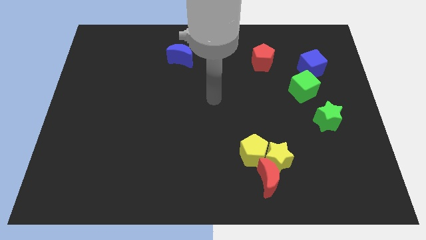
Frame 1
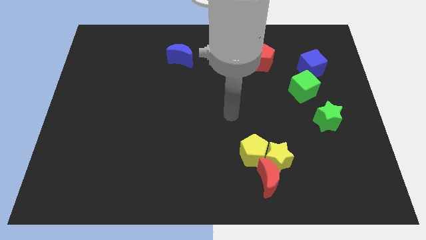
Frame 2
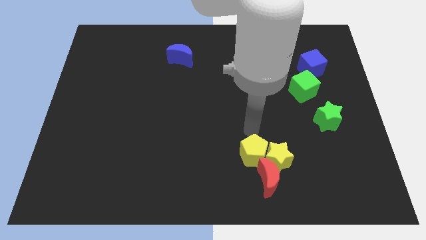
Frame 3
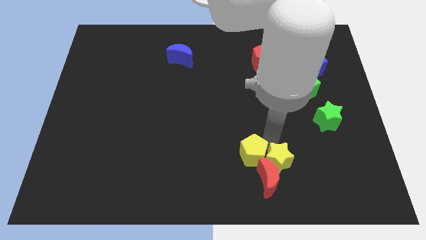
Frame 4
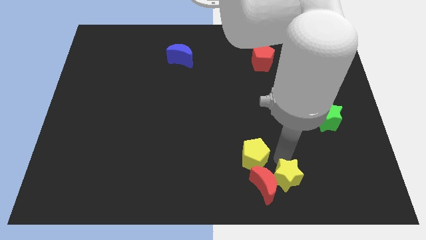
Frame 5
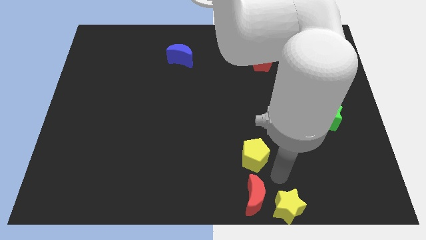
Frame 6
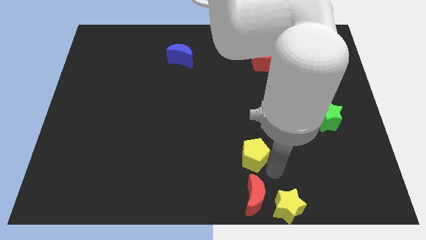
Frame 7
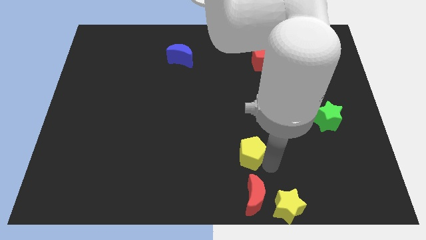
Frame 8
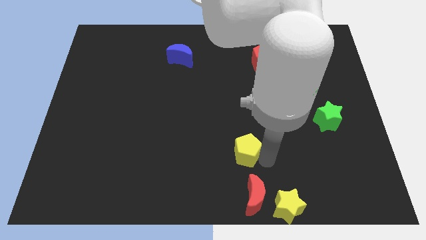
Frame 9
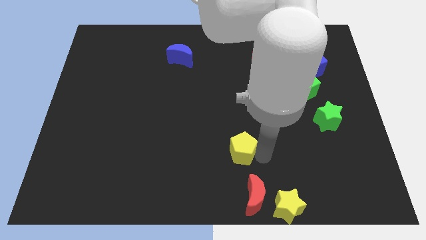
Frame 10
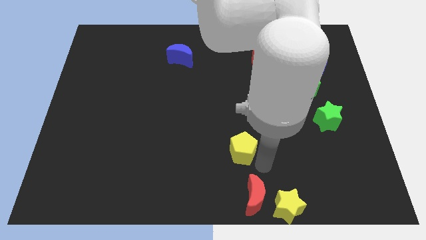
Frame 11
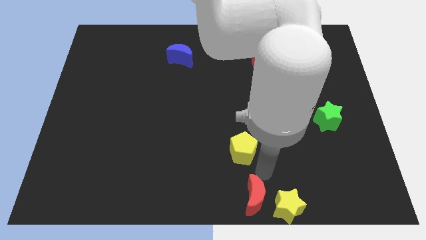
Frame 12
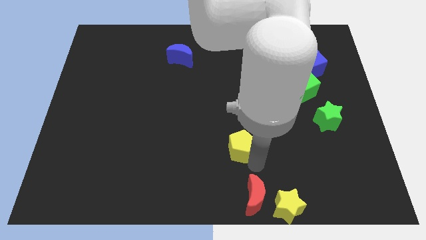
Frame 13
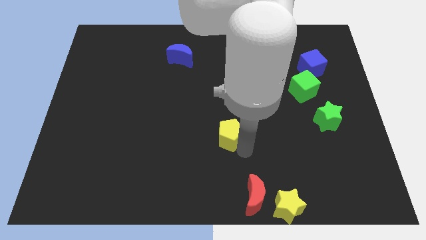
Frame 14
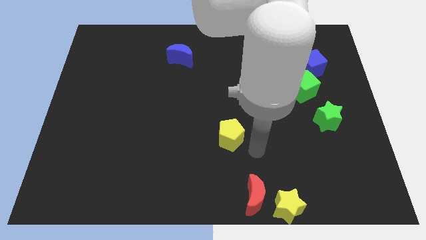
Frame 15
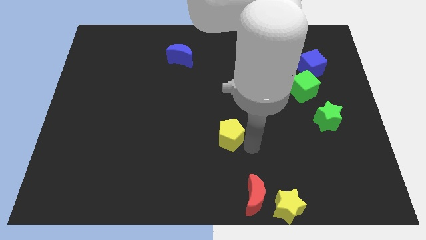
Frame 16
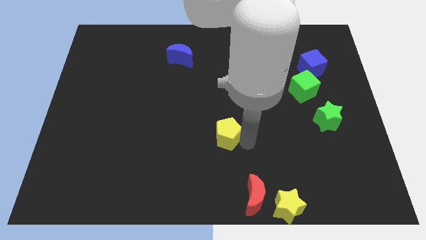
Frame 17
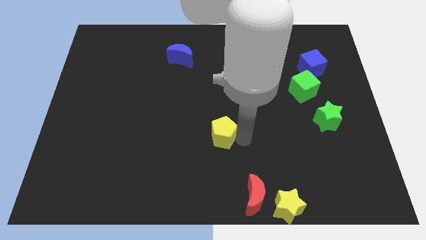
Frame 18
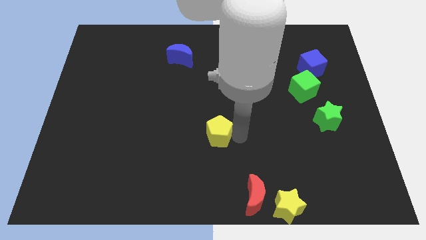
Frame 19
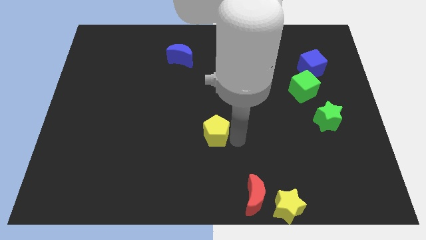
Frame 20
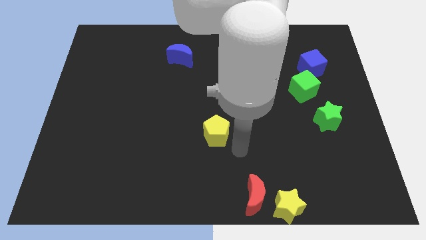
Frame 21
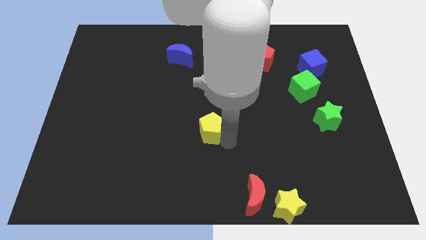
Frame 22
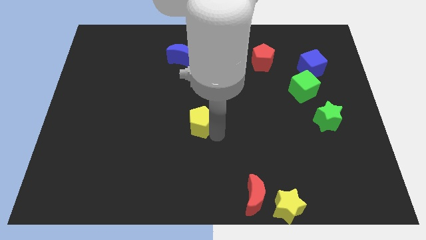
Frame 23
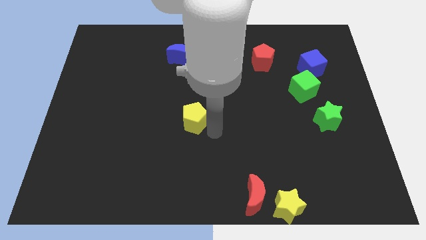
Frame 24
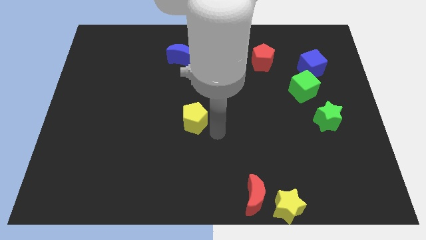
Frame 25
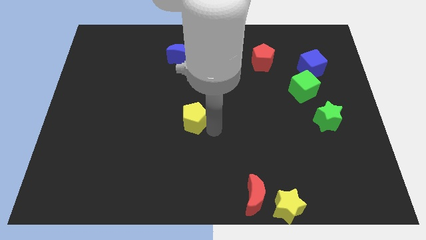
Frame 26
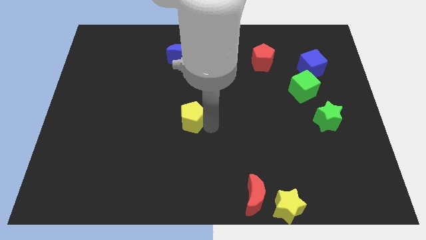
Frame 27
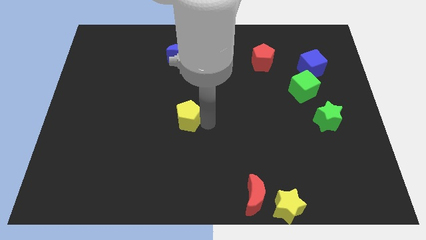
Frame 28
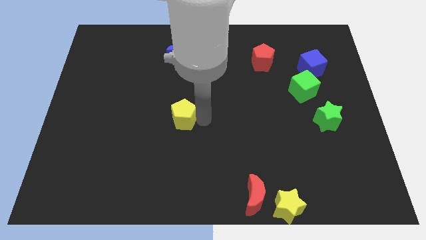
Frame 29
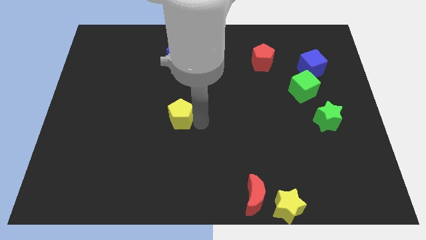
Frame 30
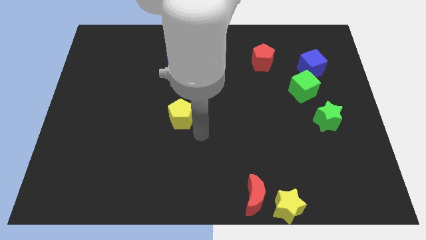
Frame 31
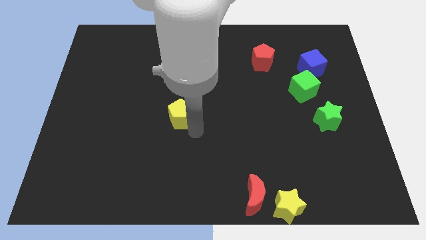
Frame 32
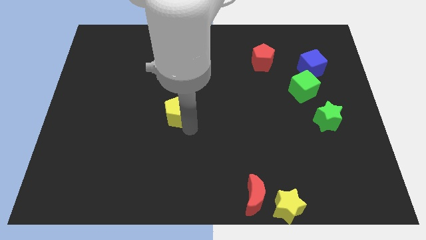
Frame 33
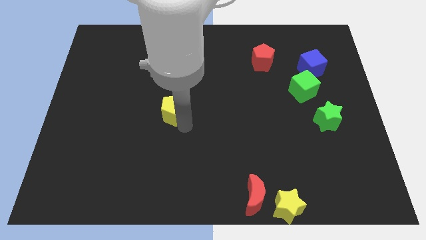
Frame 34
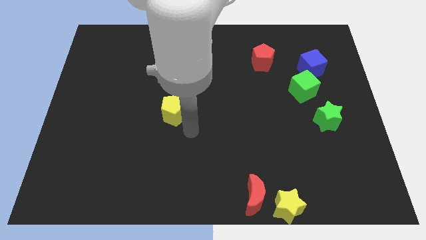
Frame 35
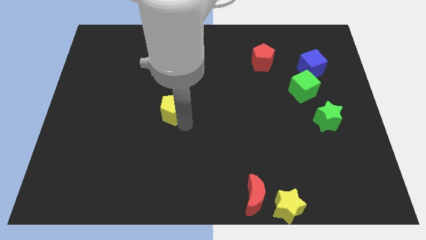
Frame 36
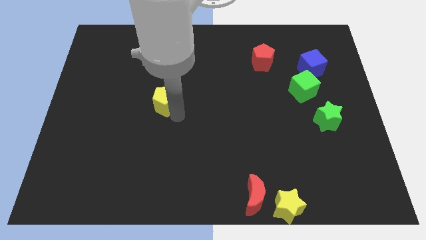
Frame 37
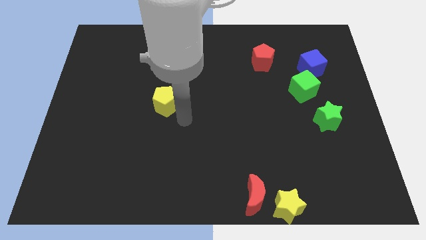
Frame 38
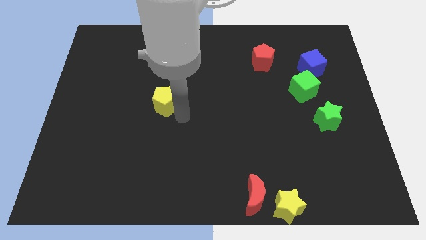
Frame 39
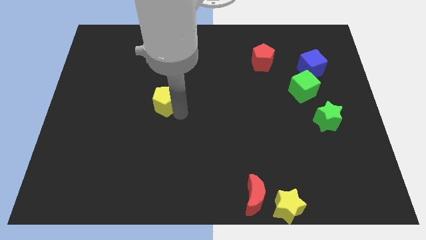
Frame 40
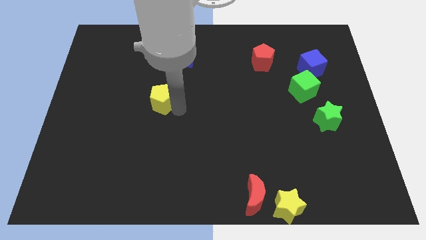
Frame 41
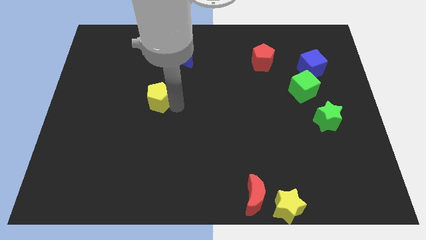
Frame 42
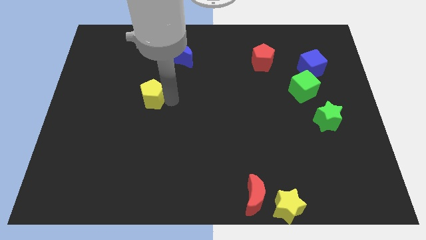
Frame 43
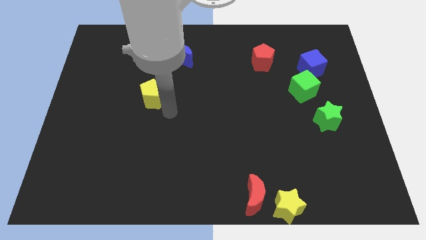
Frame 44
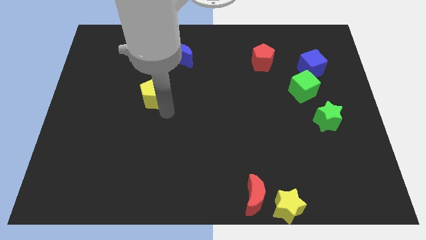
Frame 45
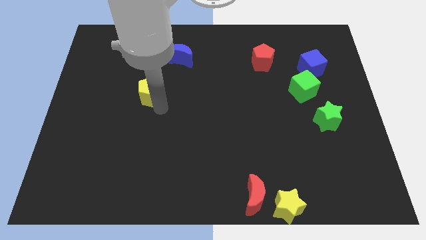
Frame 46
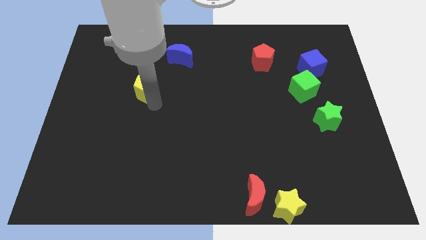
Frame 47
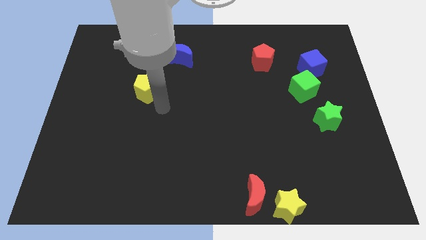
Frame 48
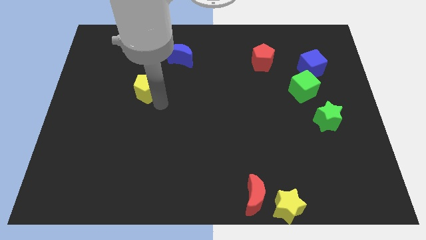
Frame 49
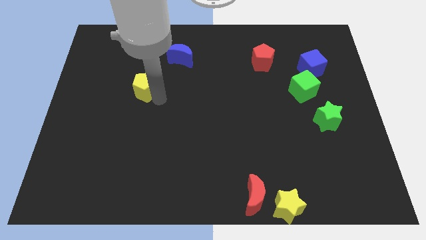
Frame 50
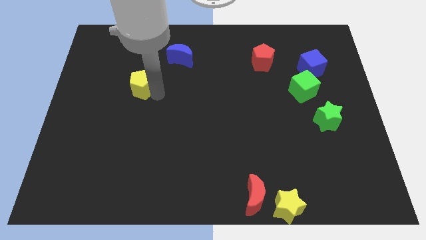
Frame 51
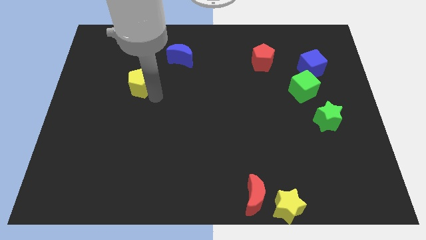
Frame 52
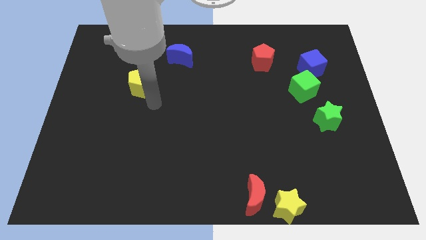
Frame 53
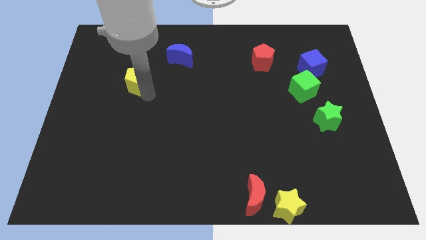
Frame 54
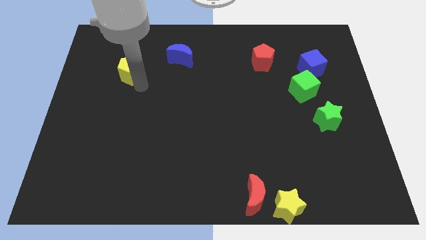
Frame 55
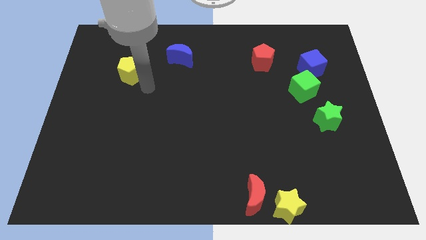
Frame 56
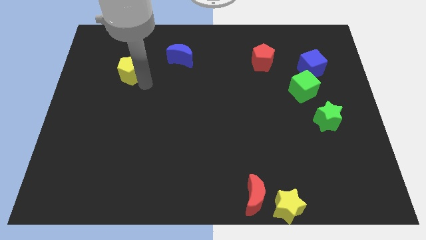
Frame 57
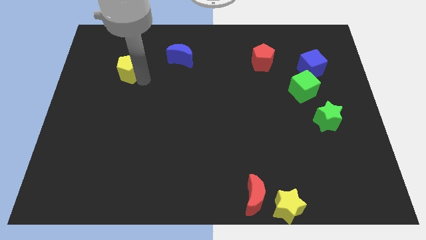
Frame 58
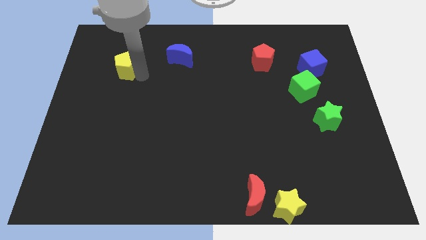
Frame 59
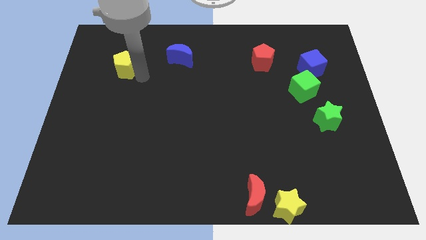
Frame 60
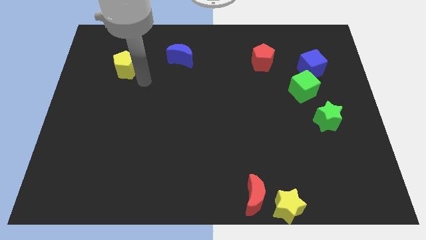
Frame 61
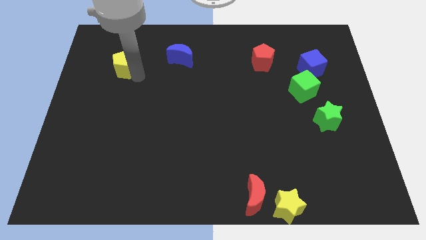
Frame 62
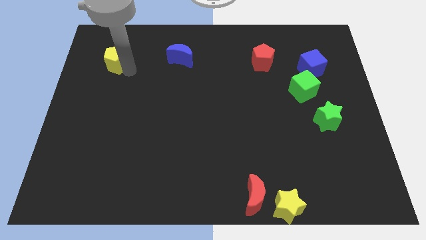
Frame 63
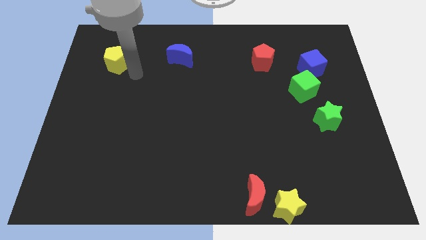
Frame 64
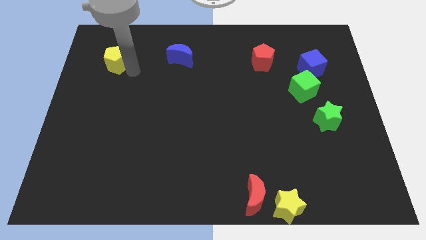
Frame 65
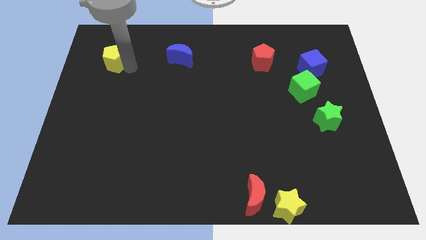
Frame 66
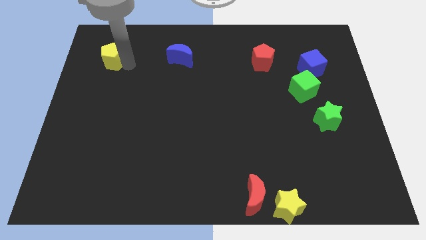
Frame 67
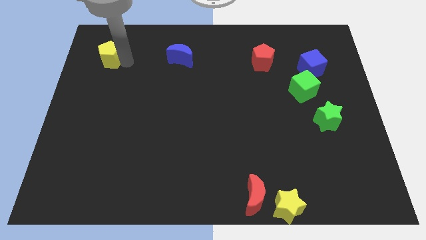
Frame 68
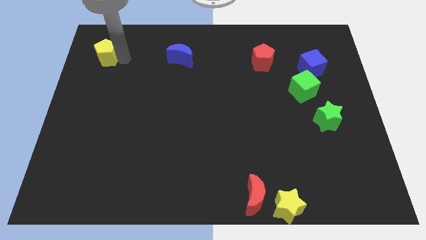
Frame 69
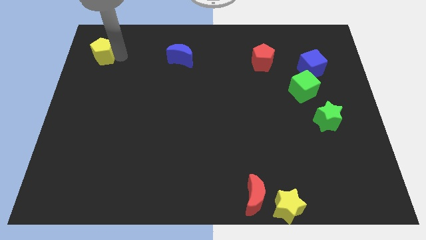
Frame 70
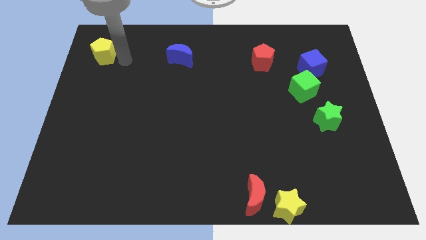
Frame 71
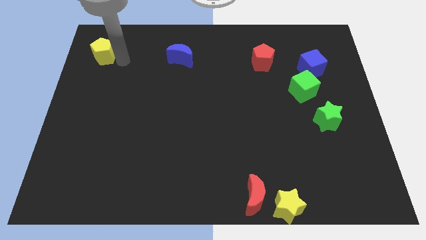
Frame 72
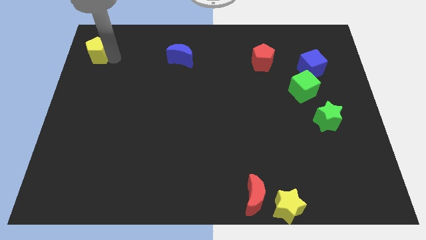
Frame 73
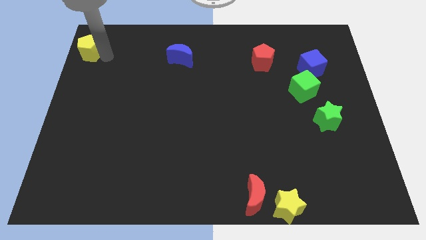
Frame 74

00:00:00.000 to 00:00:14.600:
push the yellow pentagon to the top left

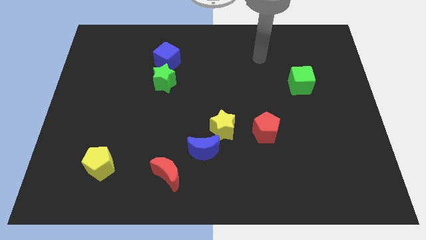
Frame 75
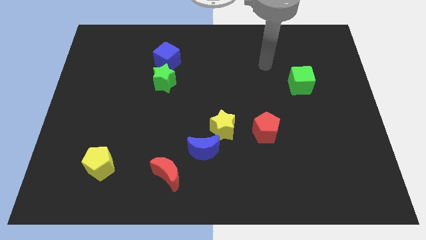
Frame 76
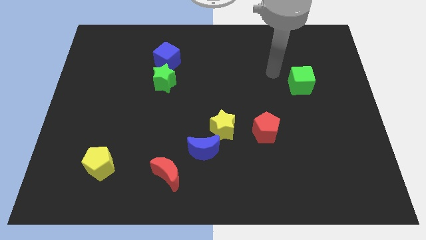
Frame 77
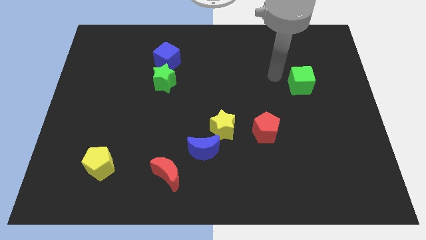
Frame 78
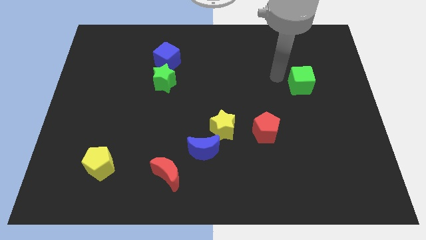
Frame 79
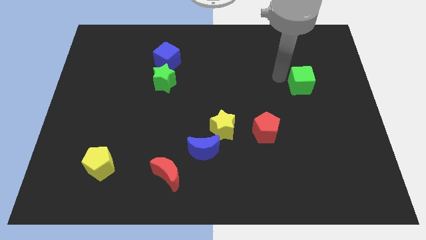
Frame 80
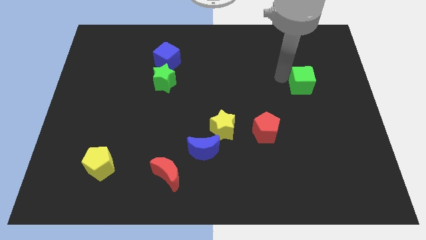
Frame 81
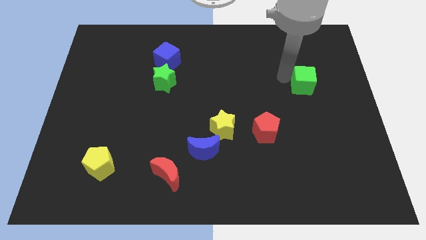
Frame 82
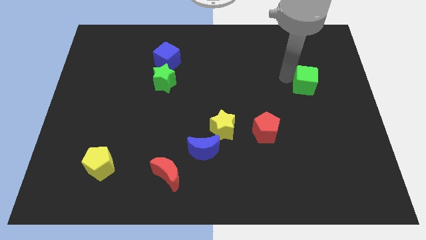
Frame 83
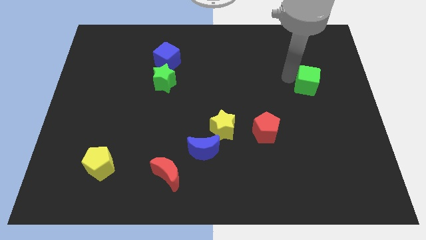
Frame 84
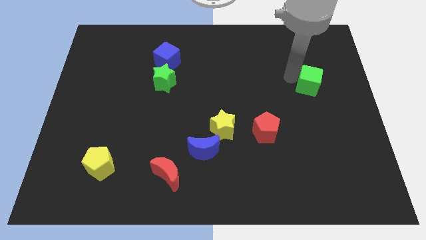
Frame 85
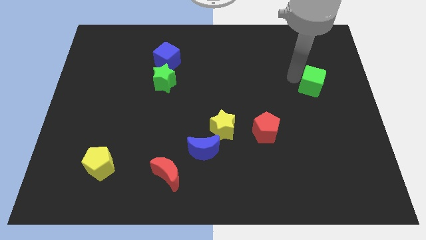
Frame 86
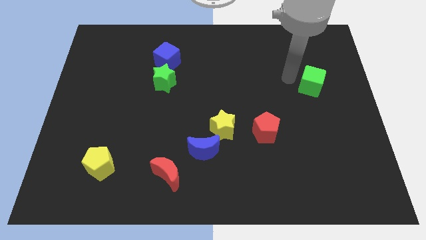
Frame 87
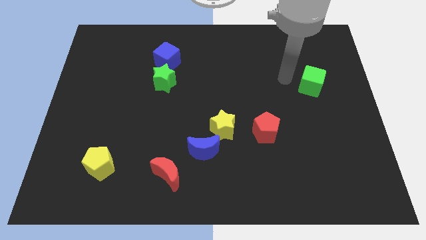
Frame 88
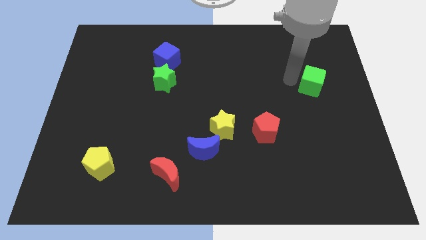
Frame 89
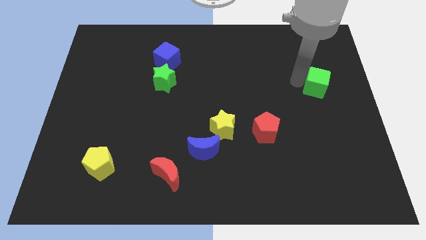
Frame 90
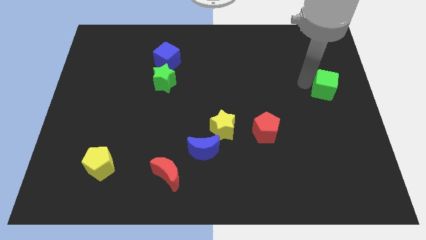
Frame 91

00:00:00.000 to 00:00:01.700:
move the green cube to the right side of the board
